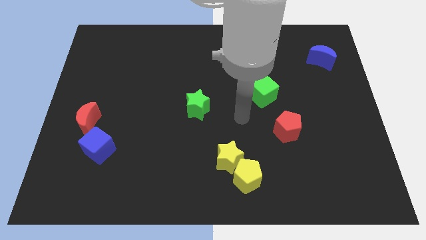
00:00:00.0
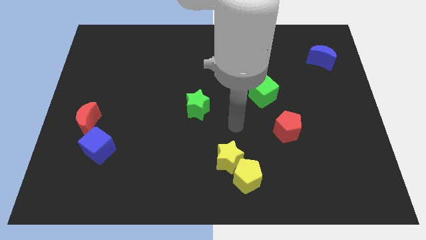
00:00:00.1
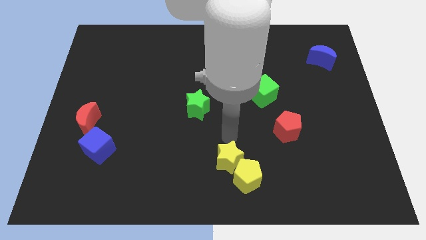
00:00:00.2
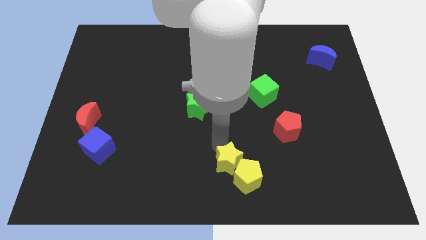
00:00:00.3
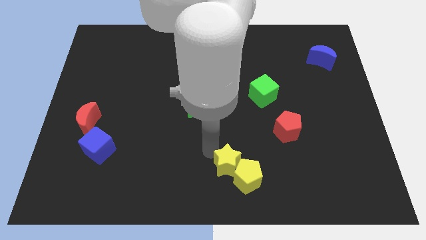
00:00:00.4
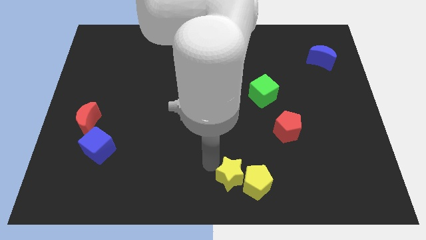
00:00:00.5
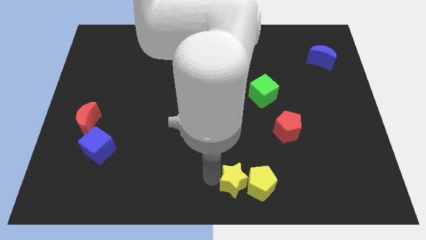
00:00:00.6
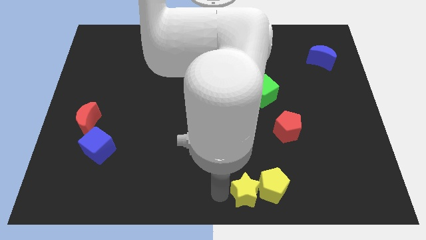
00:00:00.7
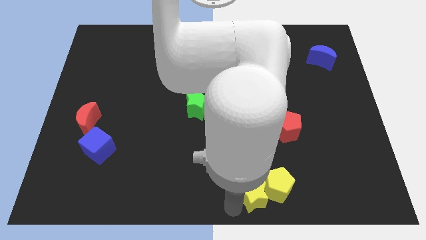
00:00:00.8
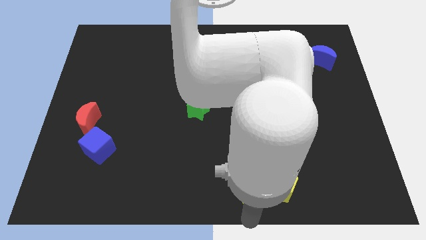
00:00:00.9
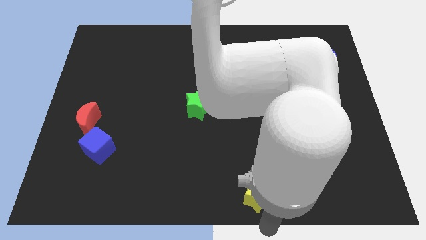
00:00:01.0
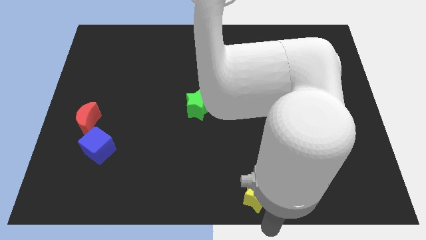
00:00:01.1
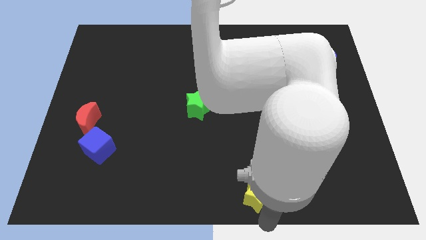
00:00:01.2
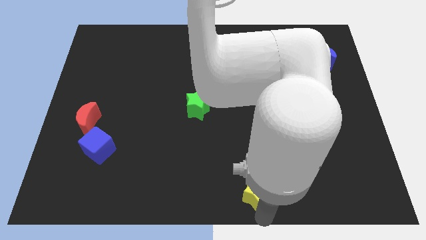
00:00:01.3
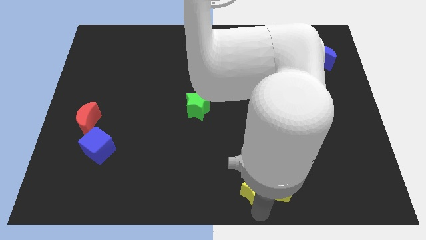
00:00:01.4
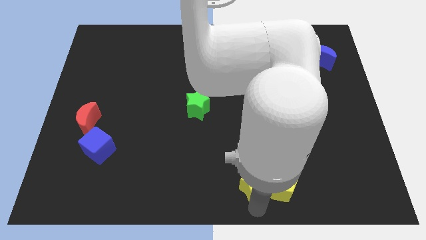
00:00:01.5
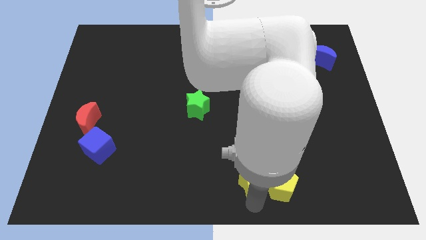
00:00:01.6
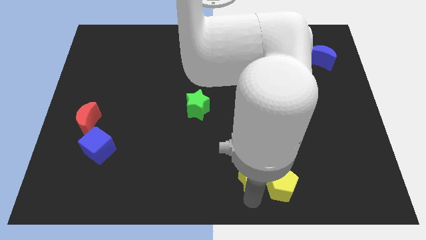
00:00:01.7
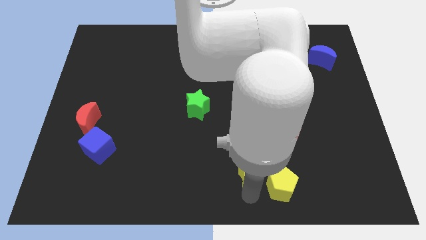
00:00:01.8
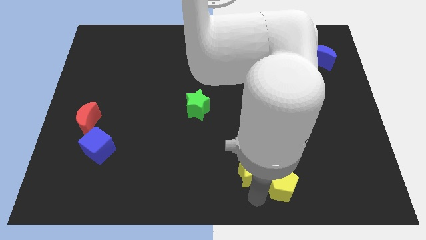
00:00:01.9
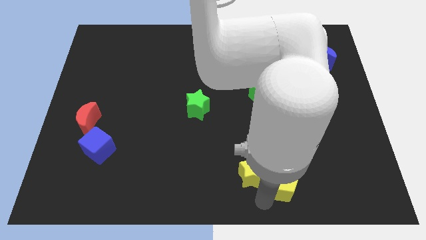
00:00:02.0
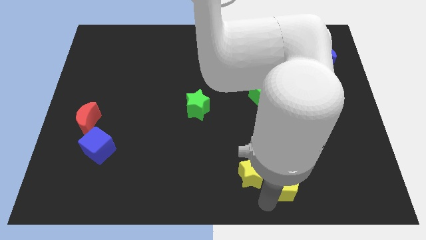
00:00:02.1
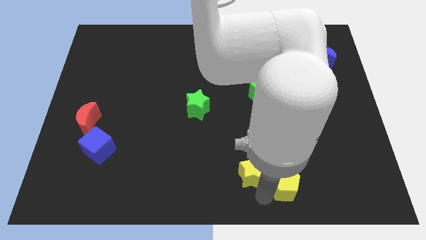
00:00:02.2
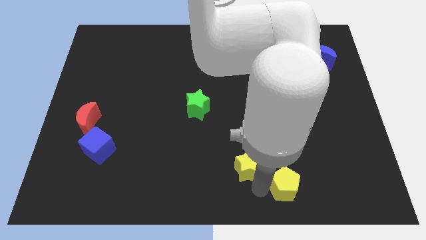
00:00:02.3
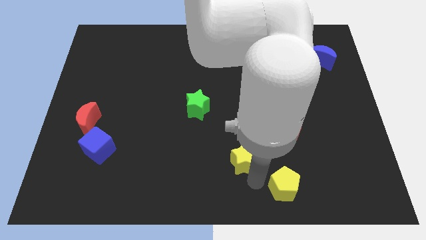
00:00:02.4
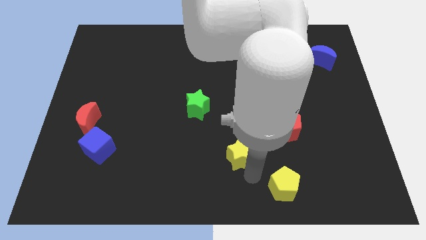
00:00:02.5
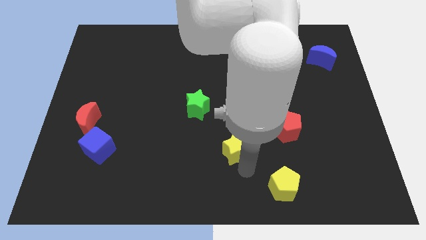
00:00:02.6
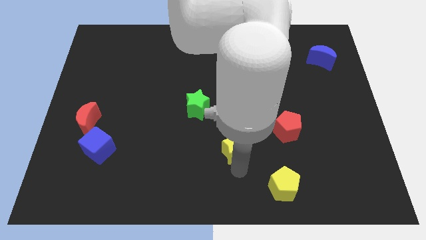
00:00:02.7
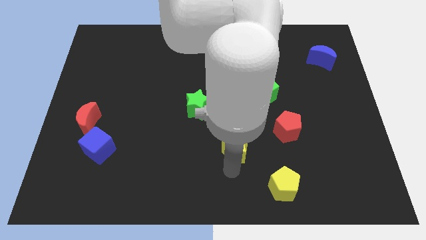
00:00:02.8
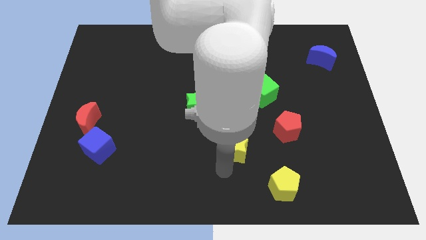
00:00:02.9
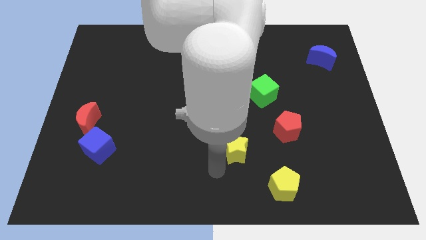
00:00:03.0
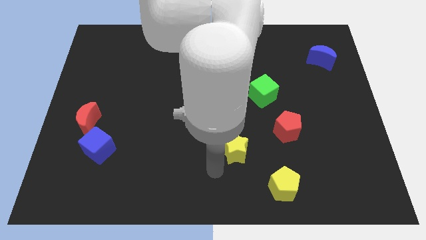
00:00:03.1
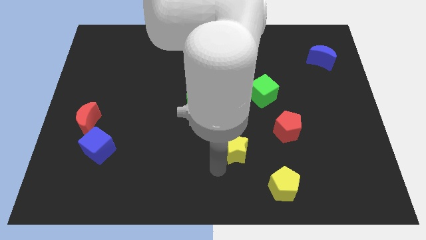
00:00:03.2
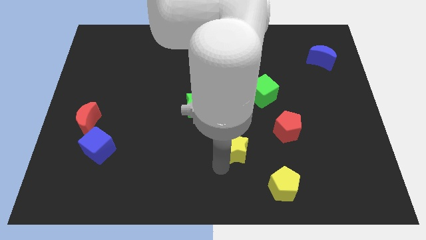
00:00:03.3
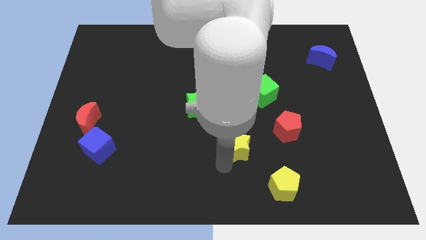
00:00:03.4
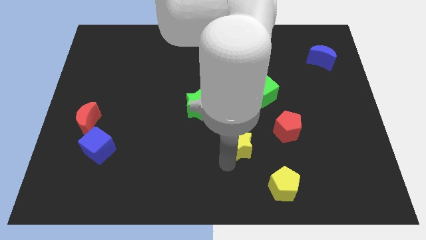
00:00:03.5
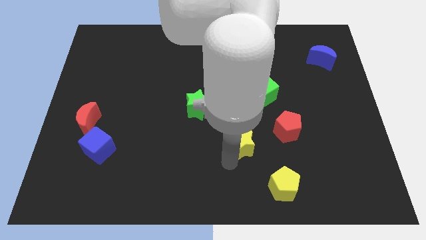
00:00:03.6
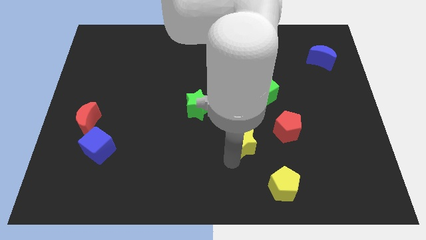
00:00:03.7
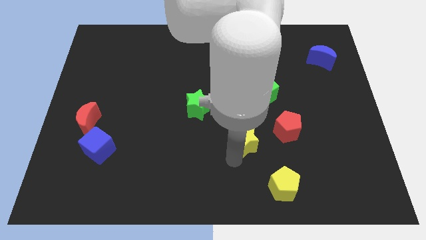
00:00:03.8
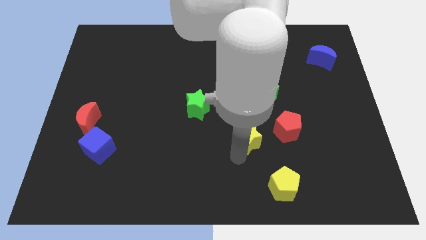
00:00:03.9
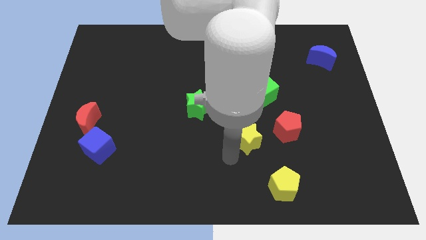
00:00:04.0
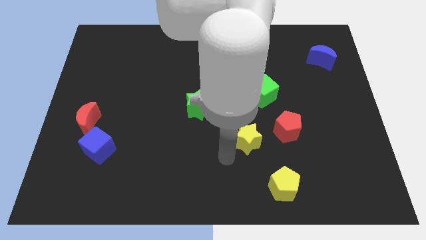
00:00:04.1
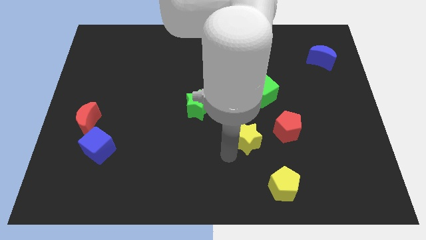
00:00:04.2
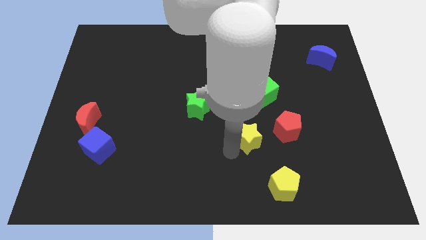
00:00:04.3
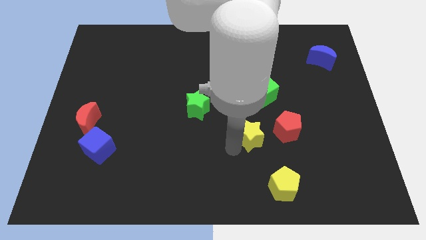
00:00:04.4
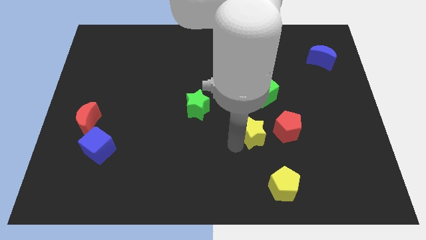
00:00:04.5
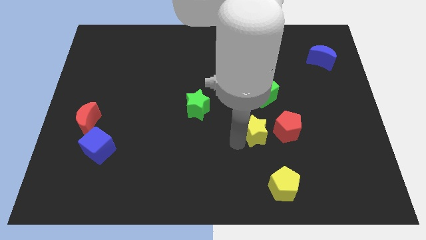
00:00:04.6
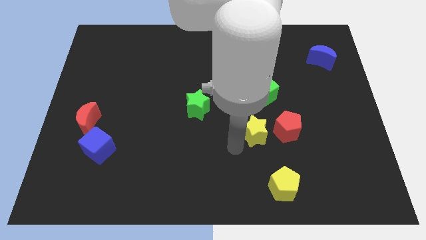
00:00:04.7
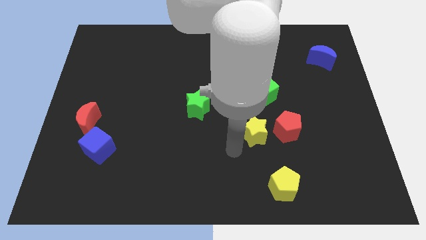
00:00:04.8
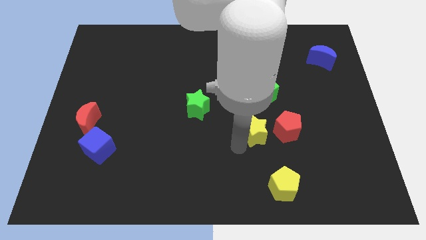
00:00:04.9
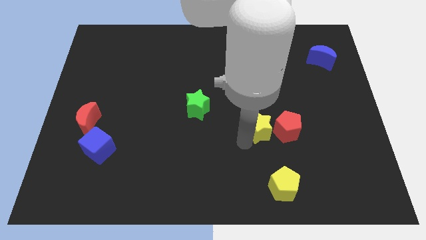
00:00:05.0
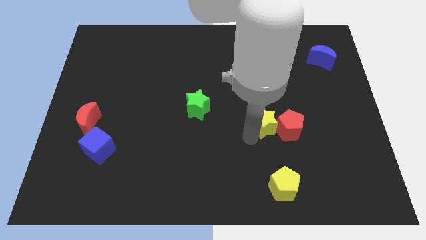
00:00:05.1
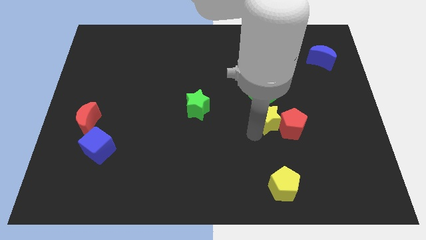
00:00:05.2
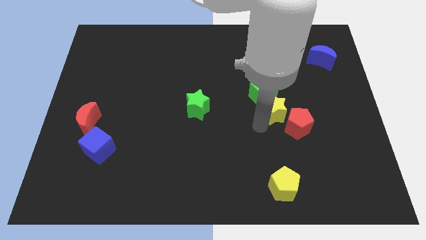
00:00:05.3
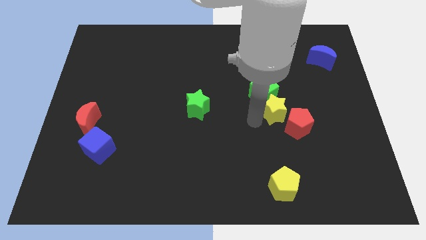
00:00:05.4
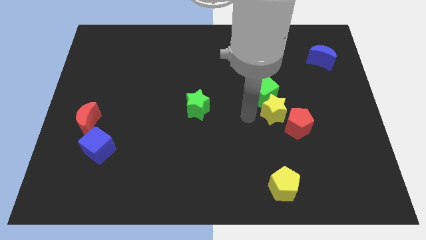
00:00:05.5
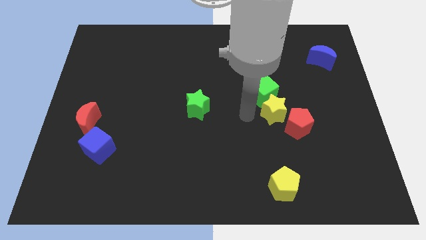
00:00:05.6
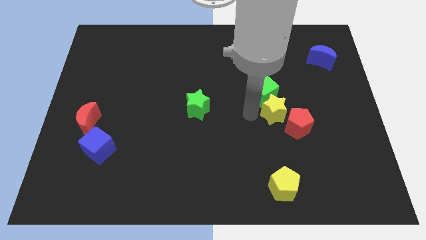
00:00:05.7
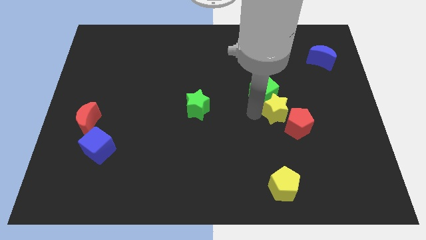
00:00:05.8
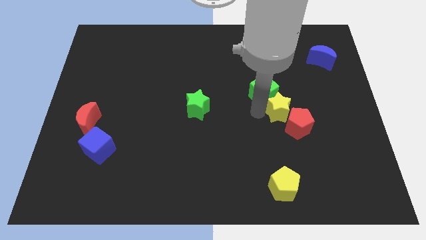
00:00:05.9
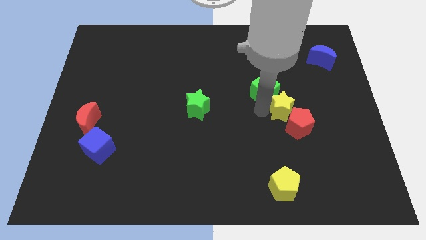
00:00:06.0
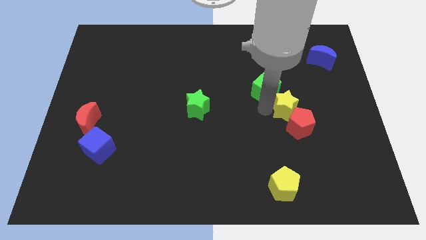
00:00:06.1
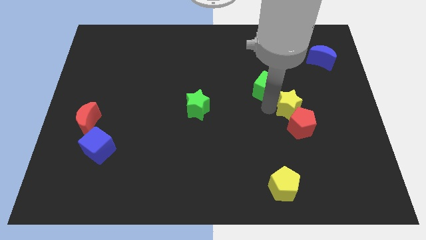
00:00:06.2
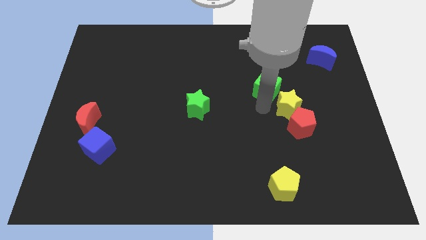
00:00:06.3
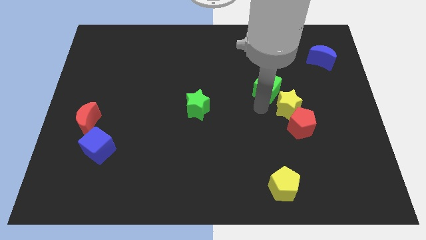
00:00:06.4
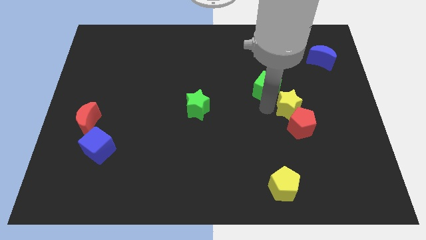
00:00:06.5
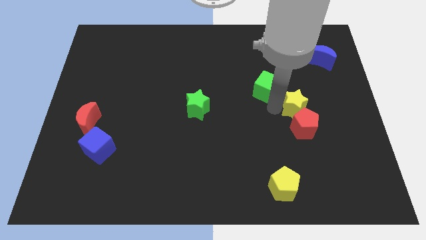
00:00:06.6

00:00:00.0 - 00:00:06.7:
put the yellow star to the top right side of the red pentagon
